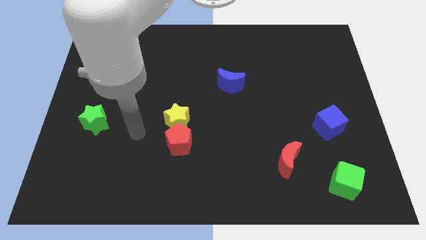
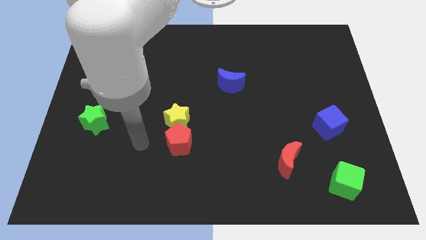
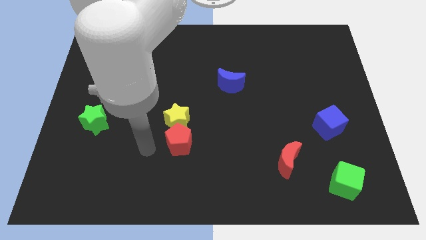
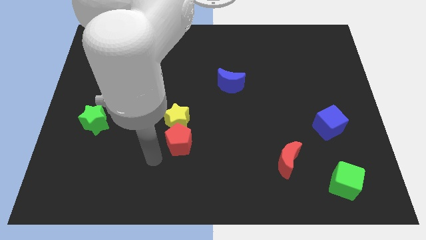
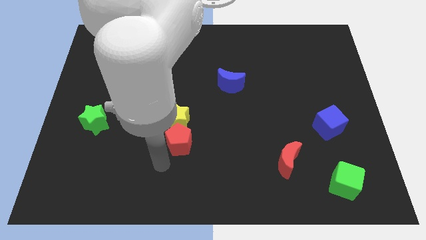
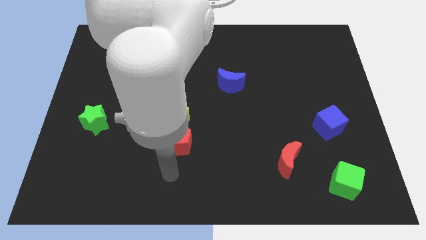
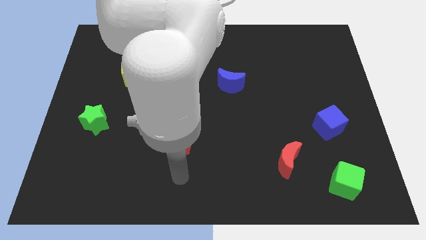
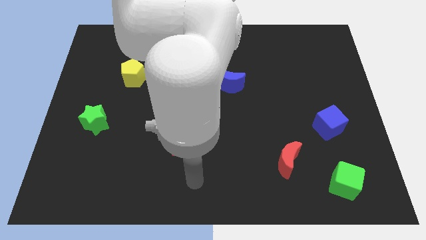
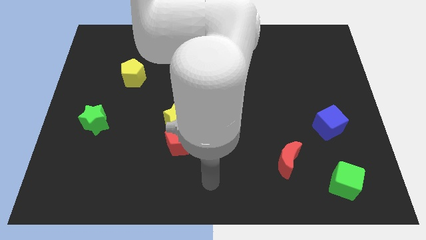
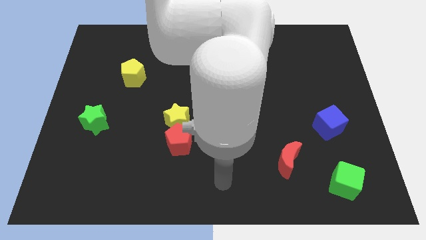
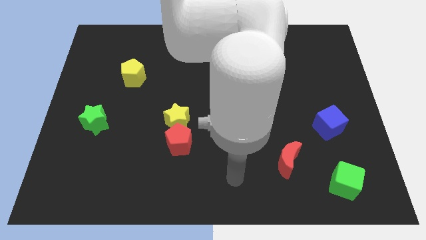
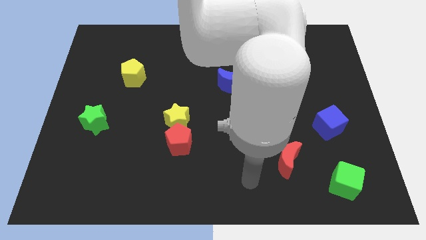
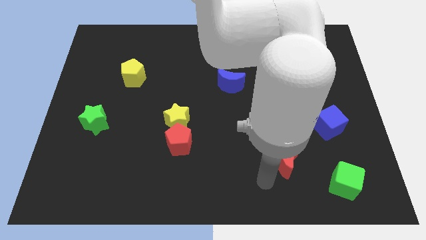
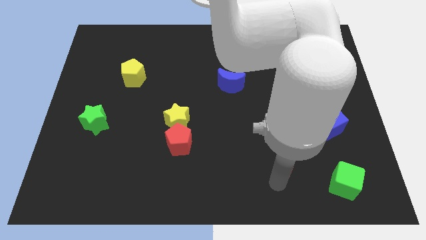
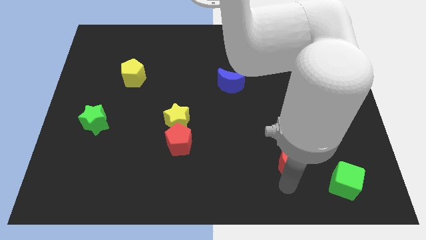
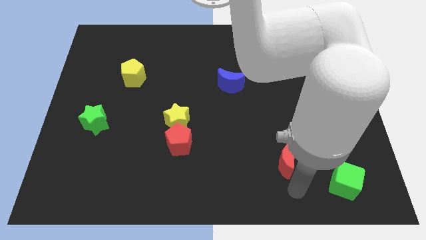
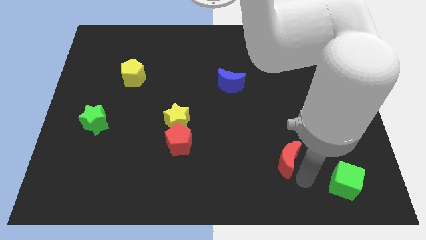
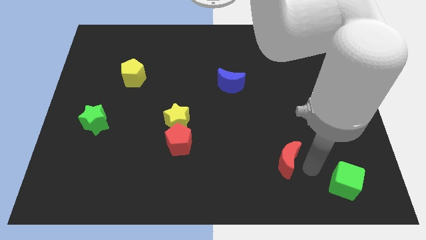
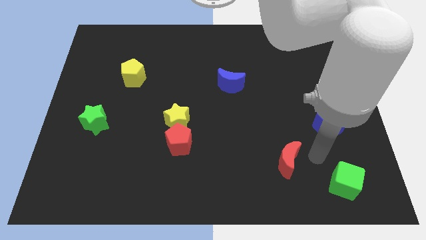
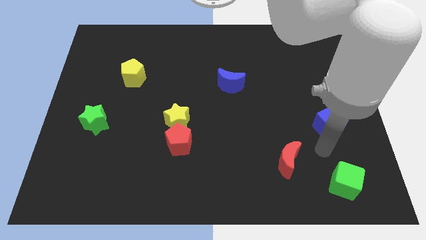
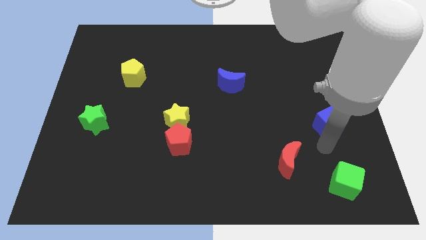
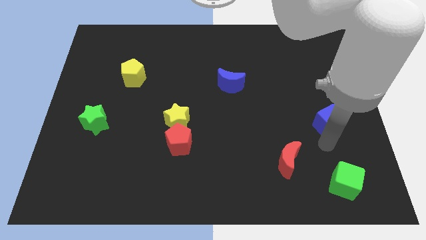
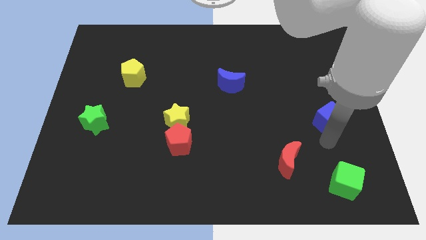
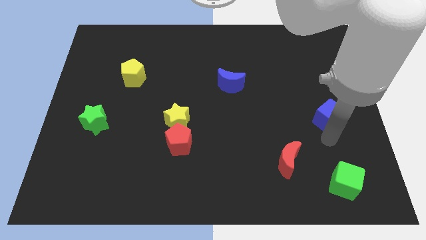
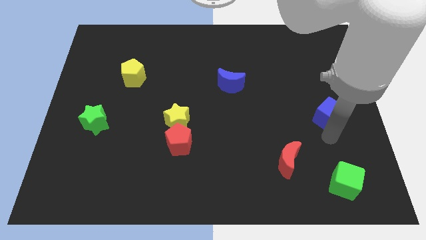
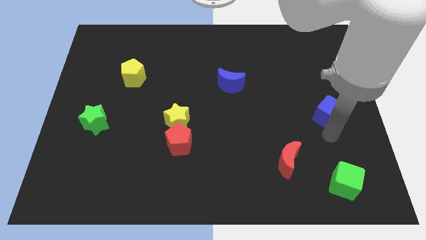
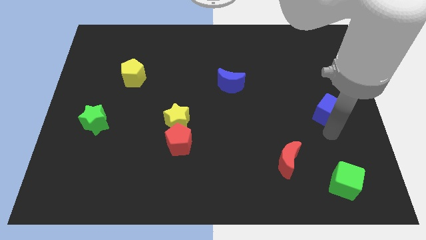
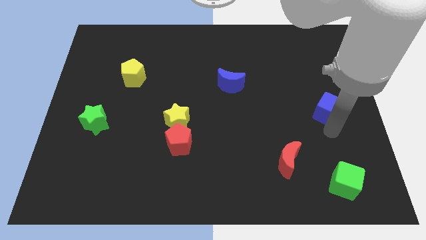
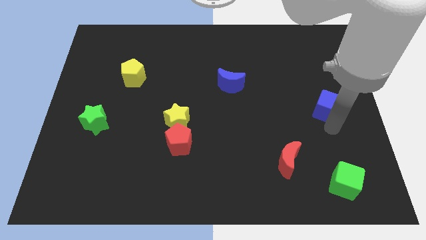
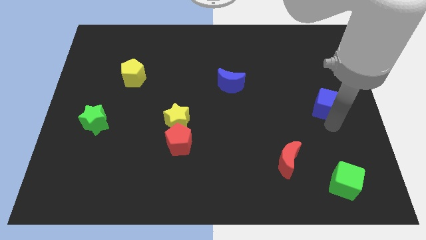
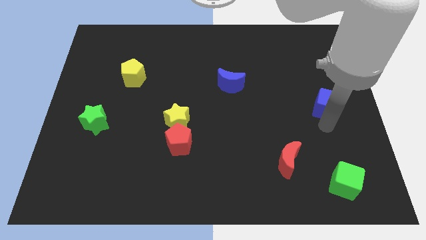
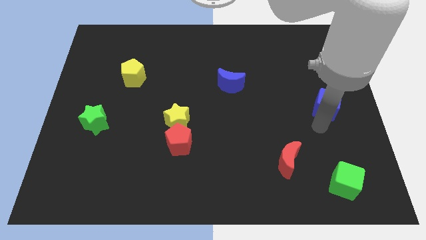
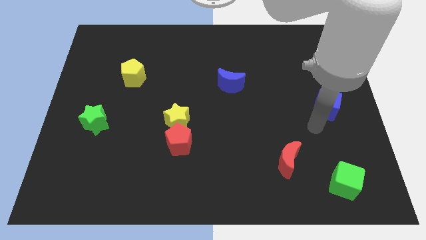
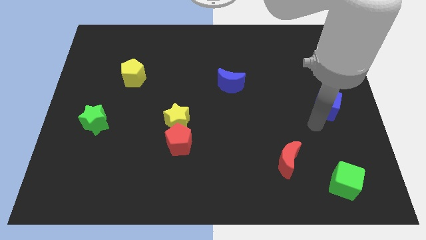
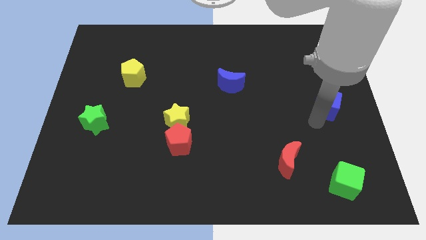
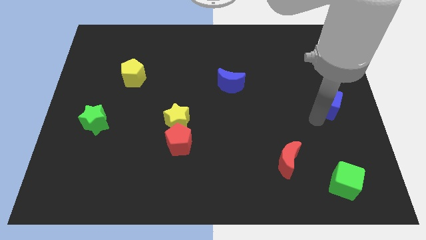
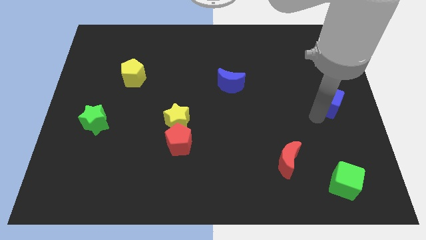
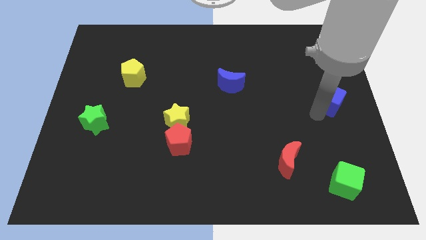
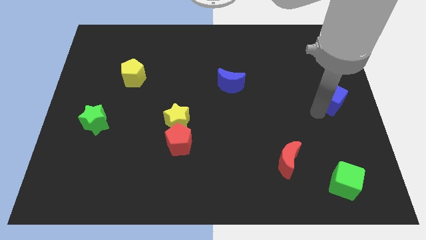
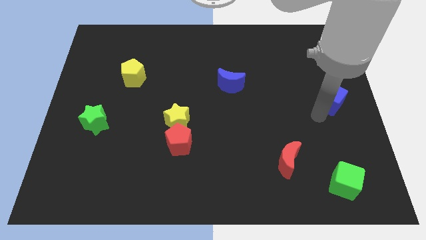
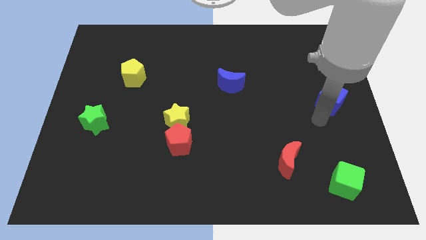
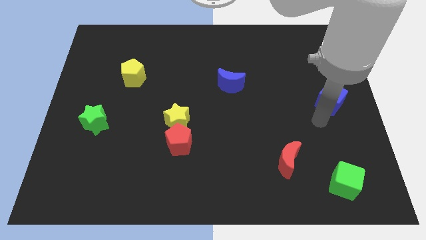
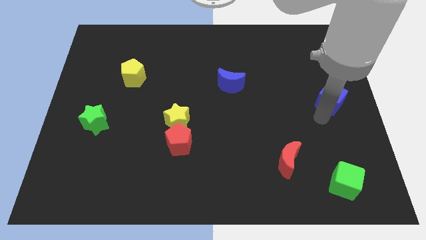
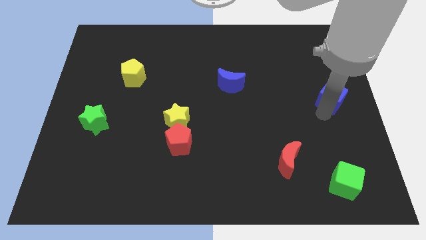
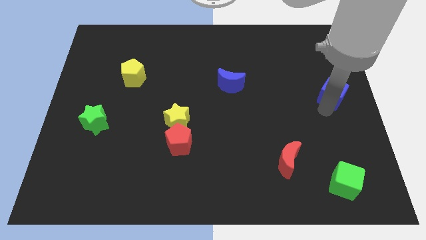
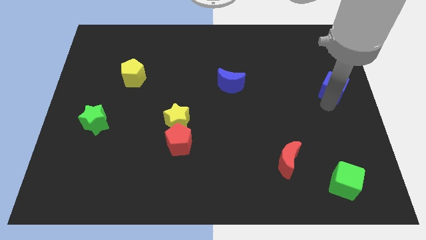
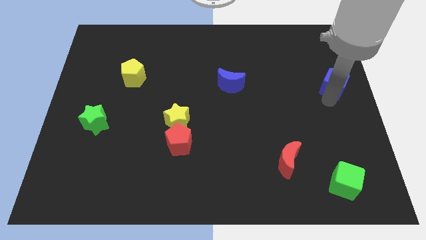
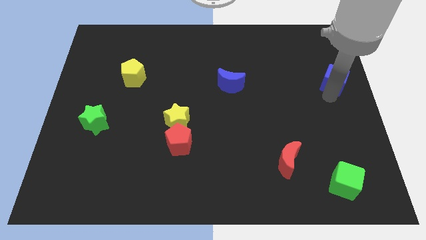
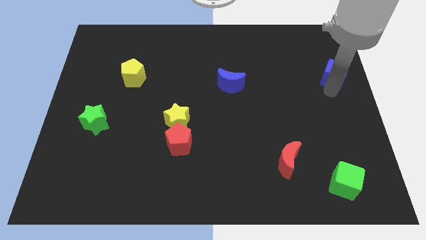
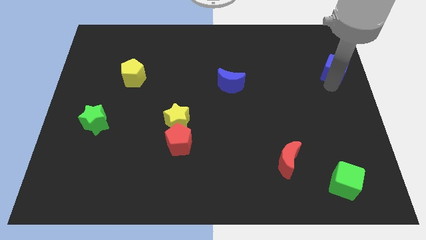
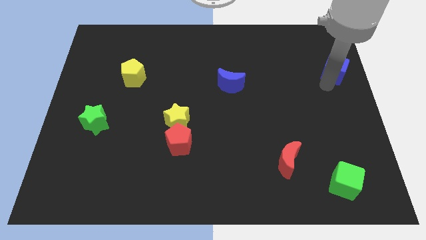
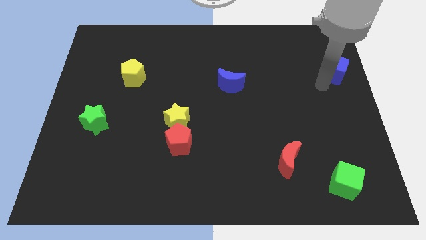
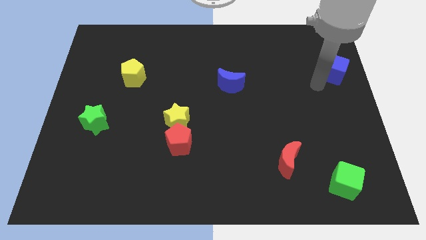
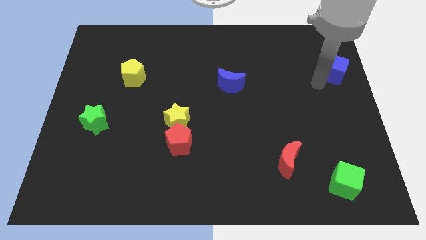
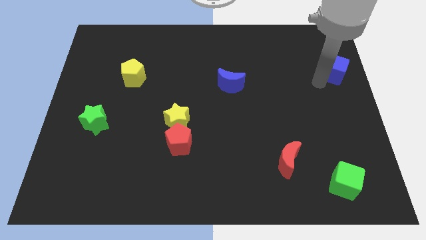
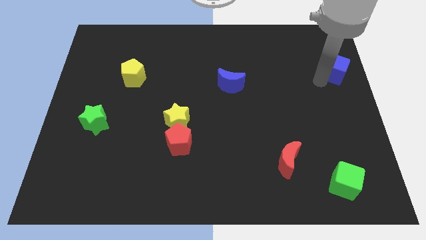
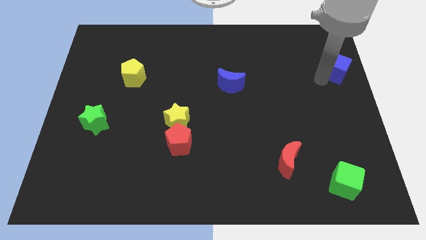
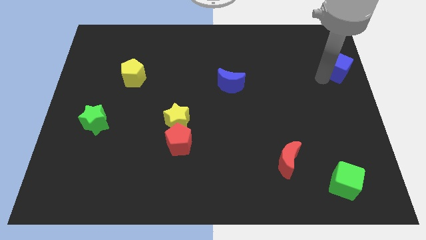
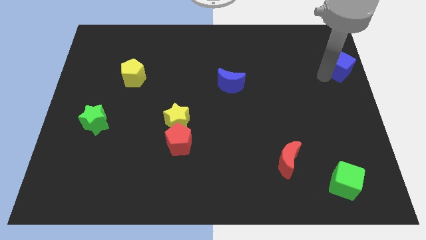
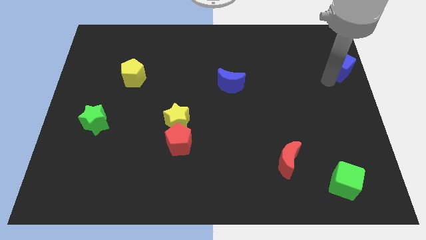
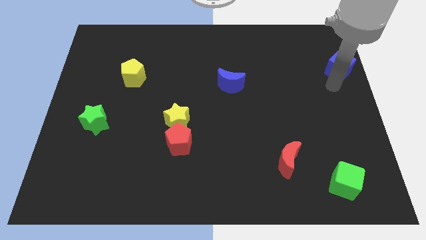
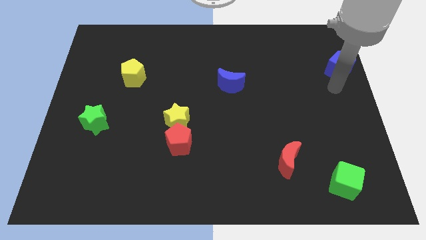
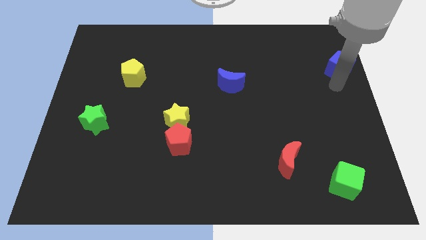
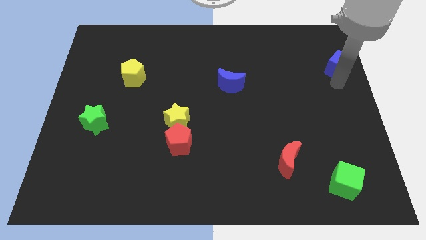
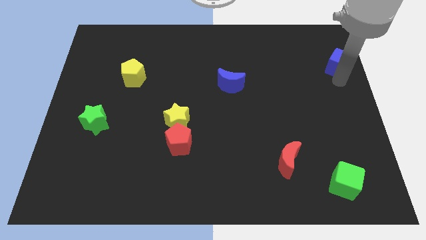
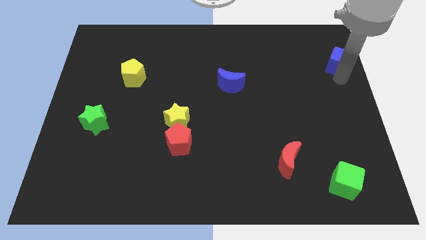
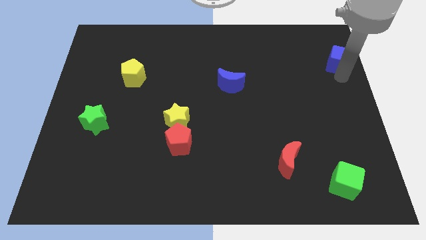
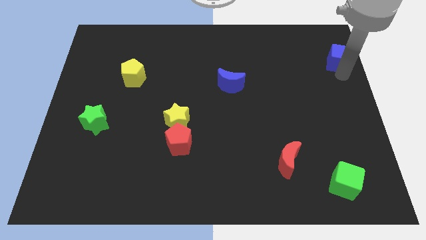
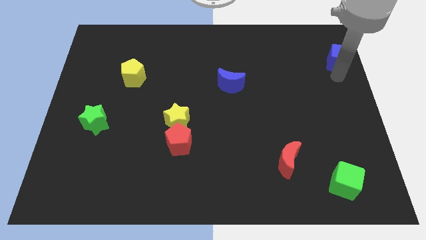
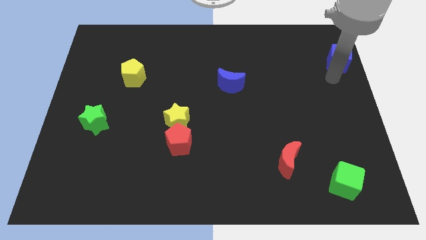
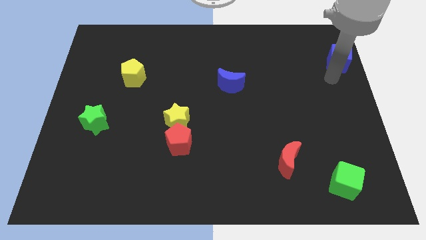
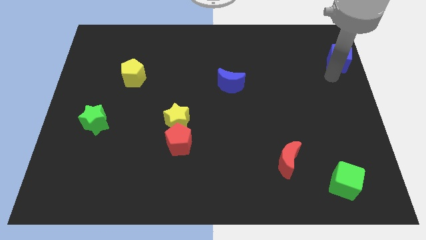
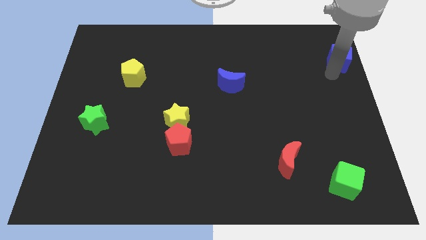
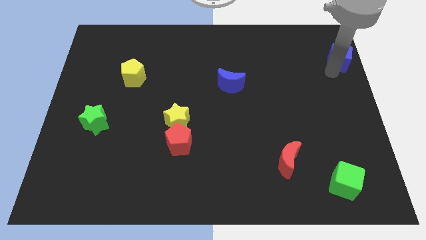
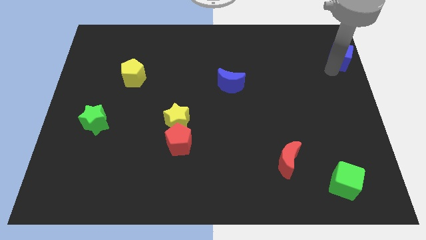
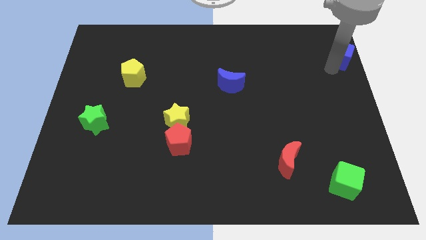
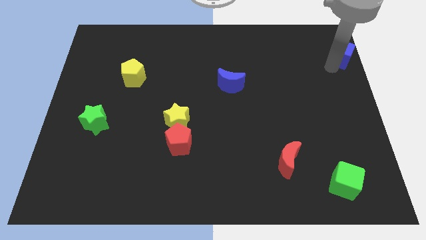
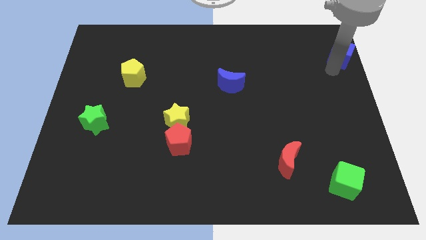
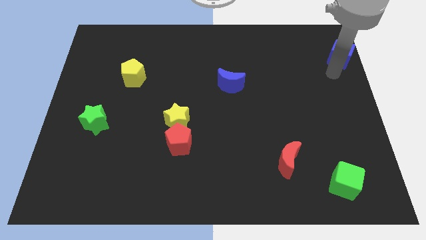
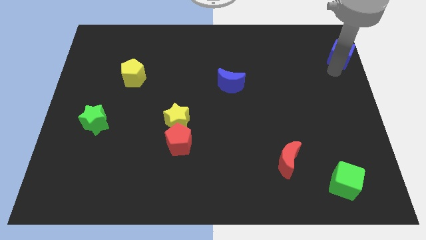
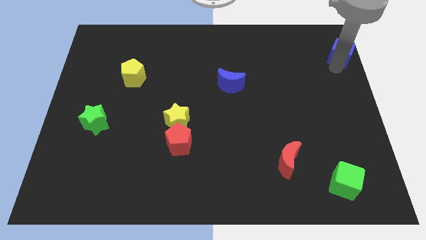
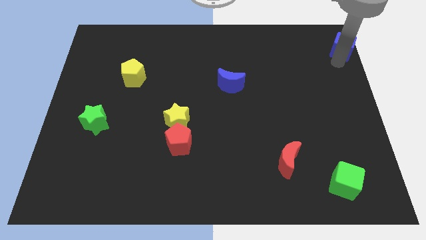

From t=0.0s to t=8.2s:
slide the blue cube to the top right
